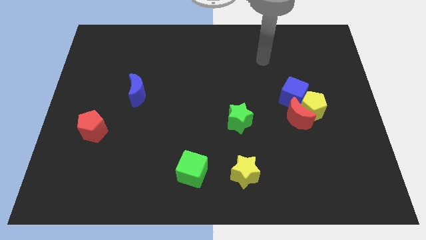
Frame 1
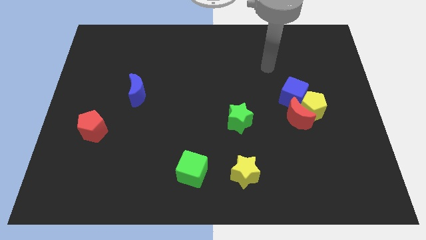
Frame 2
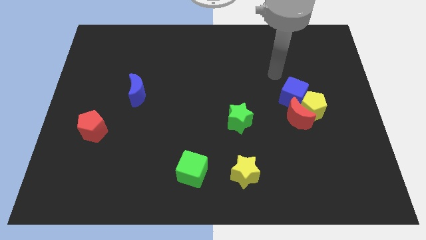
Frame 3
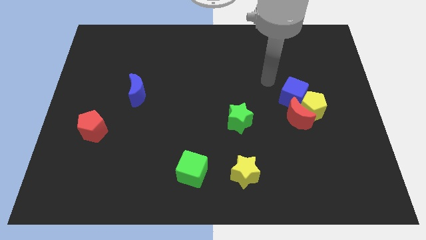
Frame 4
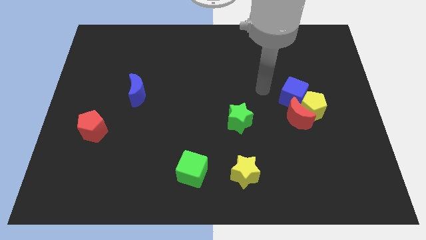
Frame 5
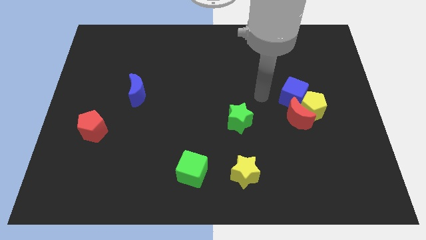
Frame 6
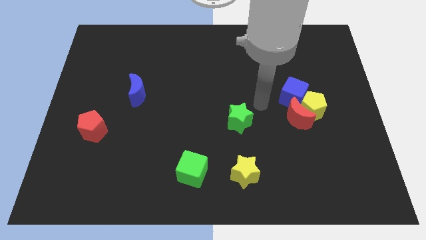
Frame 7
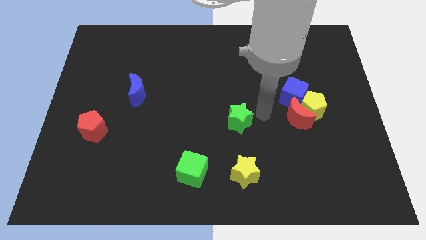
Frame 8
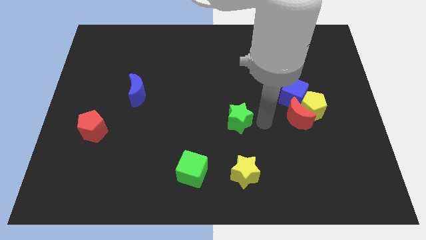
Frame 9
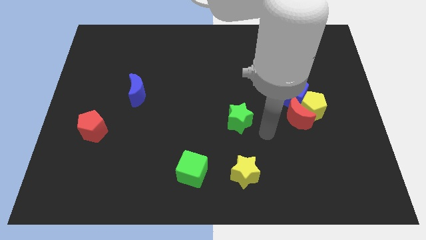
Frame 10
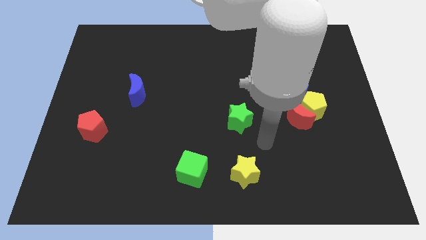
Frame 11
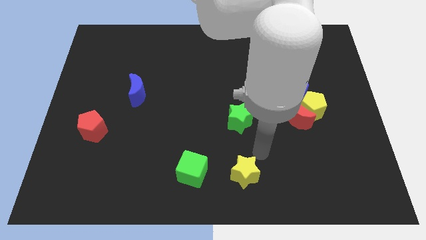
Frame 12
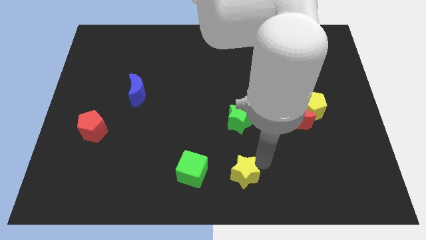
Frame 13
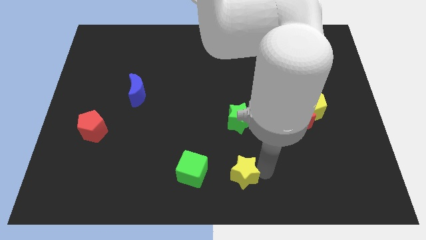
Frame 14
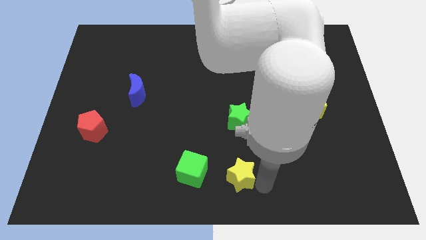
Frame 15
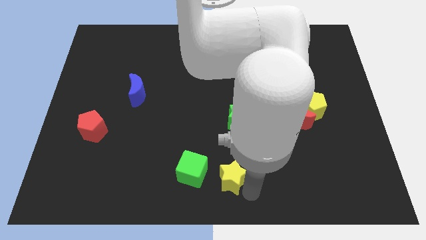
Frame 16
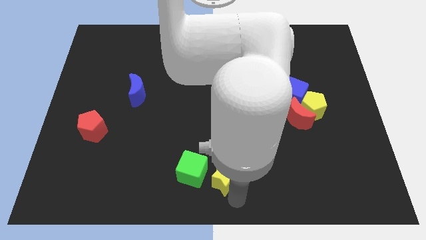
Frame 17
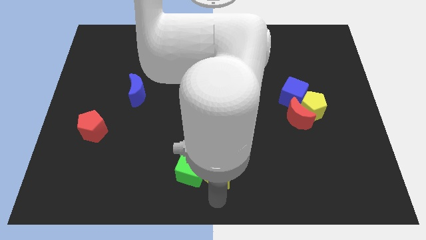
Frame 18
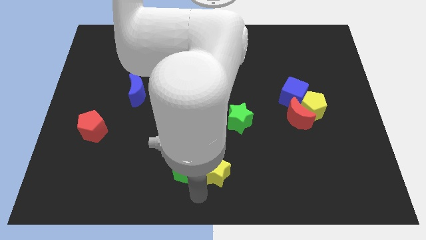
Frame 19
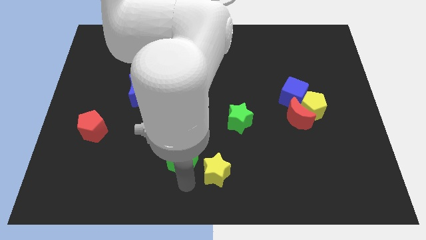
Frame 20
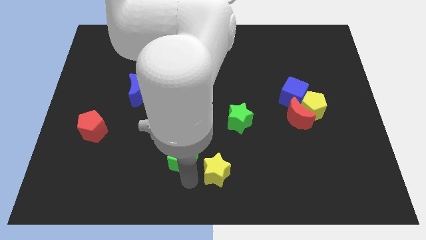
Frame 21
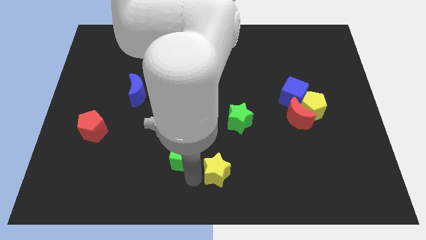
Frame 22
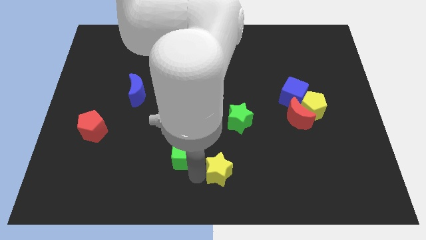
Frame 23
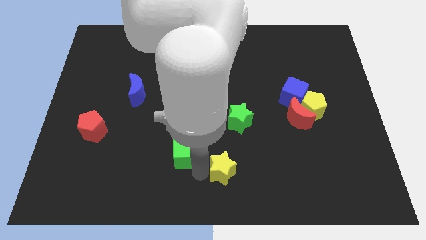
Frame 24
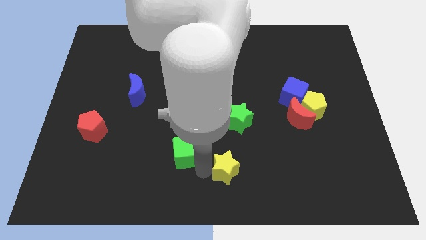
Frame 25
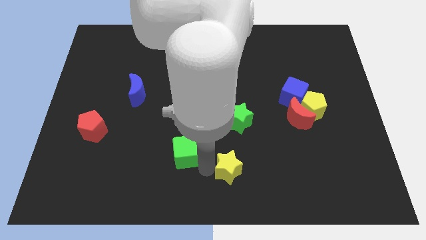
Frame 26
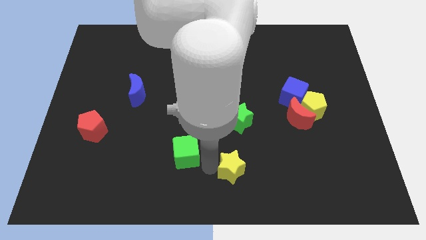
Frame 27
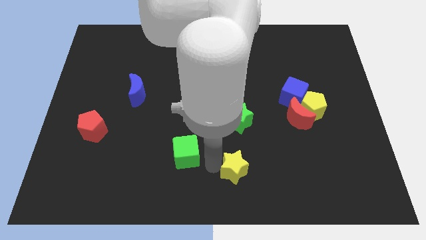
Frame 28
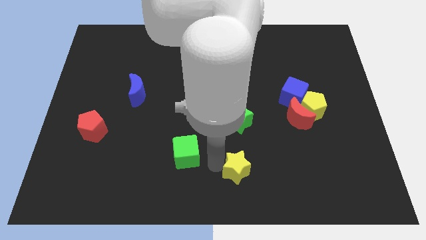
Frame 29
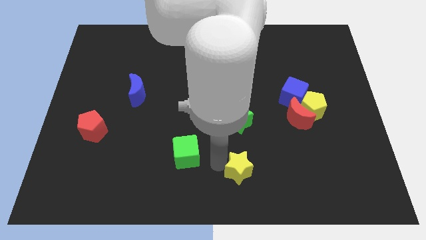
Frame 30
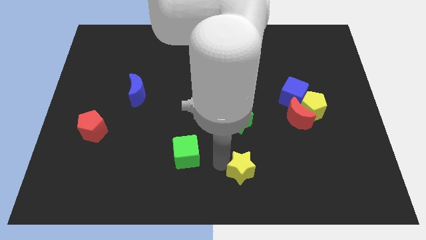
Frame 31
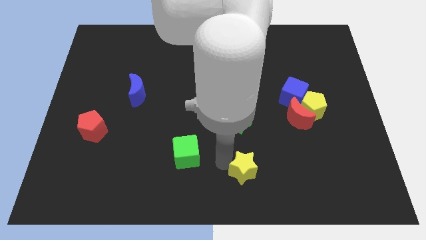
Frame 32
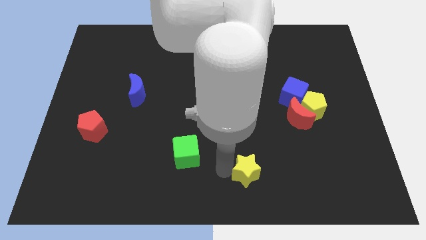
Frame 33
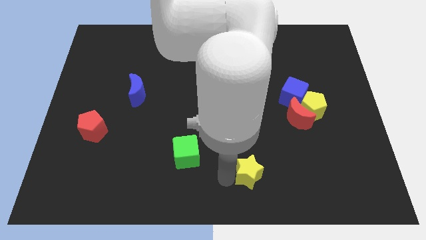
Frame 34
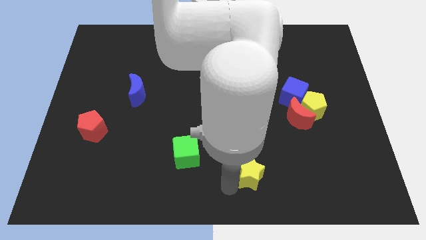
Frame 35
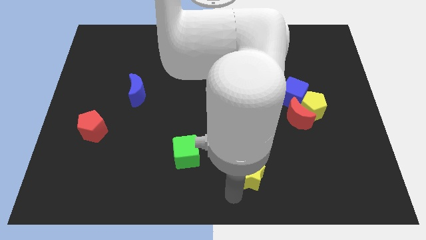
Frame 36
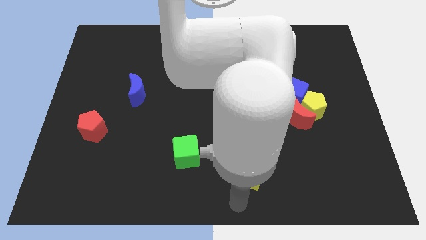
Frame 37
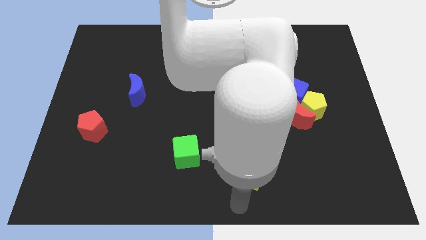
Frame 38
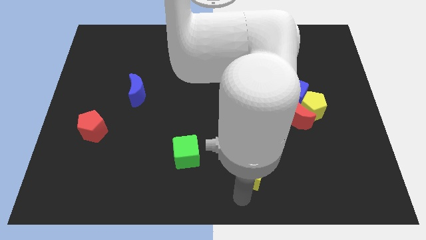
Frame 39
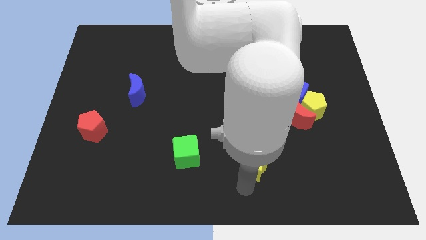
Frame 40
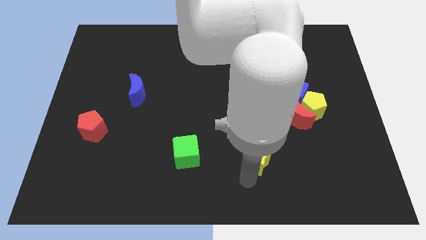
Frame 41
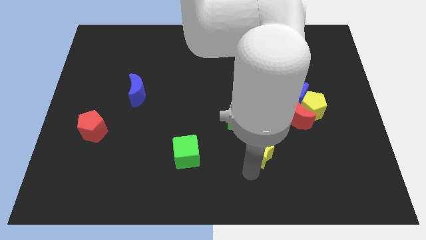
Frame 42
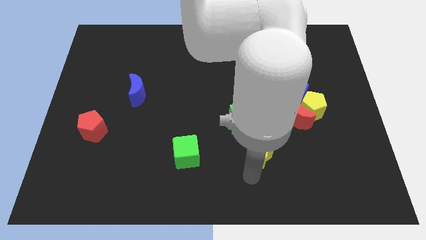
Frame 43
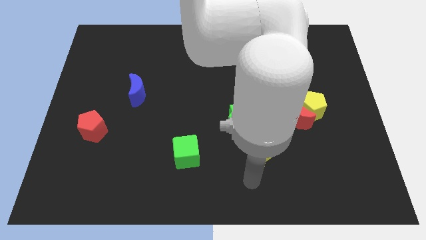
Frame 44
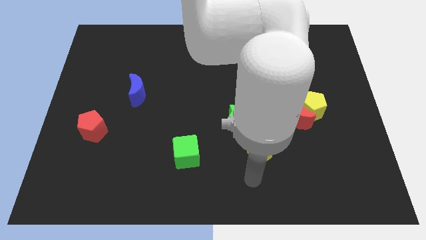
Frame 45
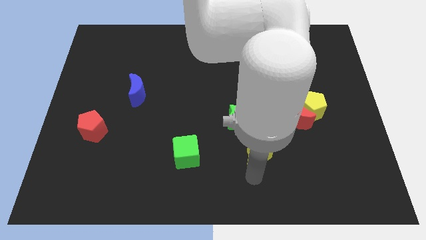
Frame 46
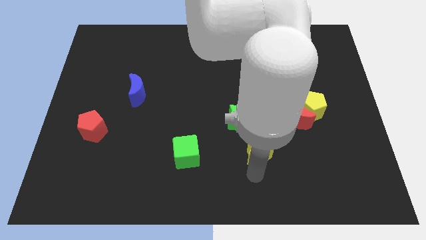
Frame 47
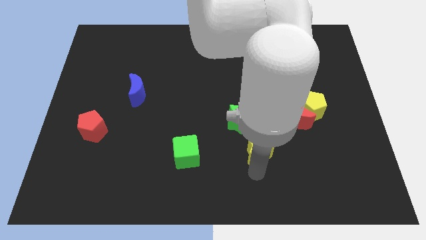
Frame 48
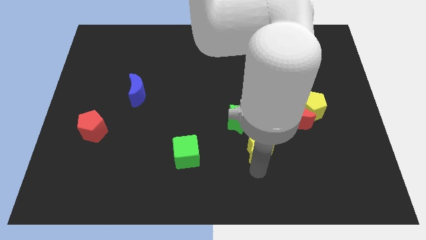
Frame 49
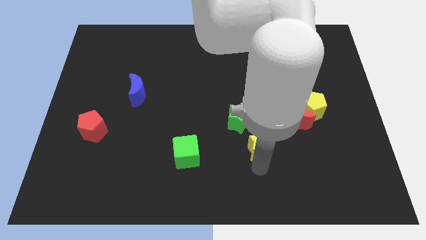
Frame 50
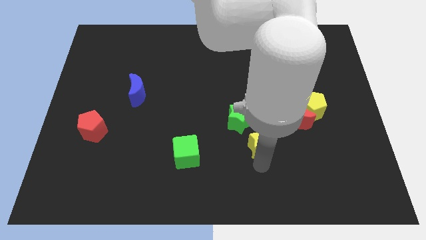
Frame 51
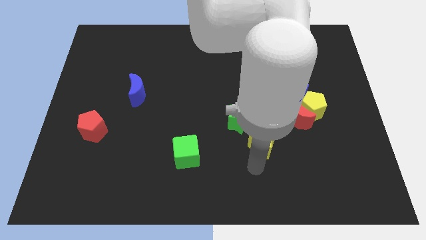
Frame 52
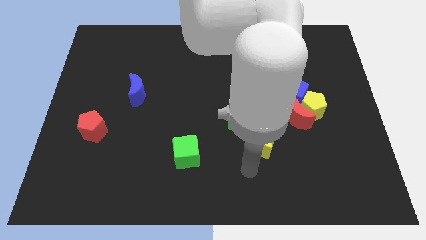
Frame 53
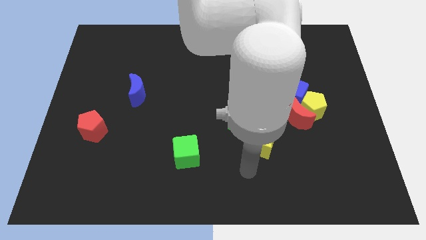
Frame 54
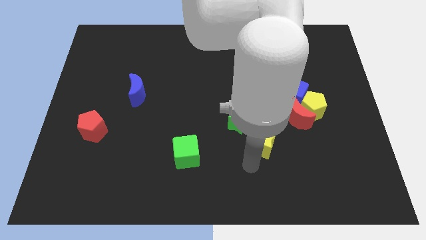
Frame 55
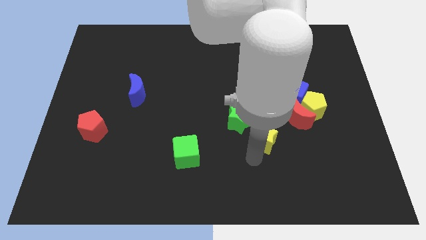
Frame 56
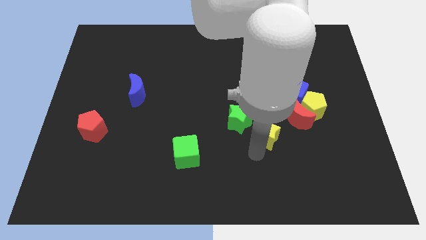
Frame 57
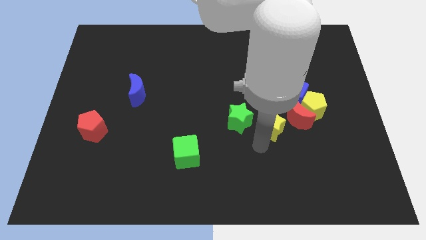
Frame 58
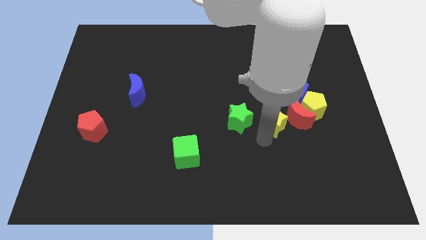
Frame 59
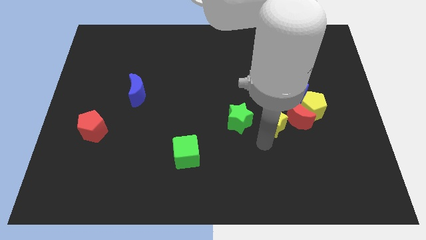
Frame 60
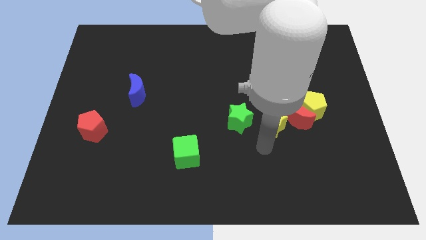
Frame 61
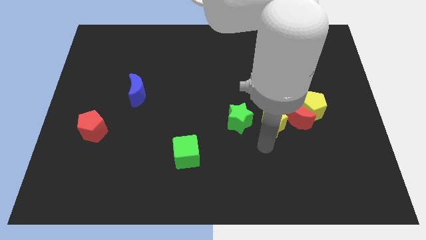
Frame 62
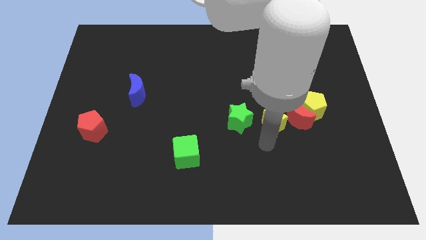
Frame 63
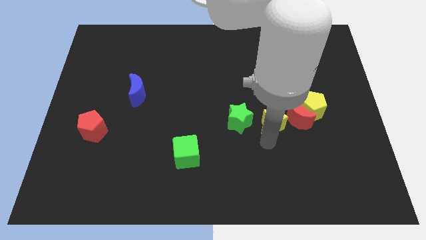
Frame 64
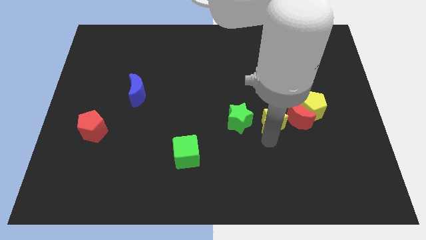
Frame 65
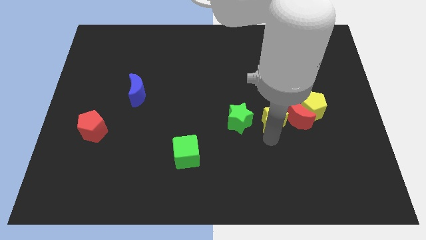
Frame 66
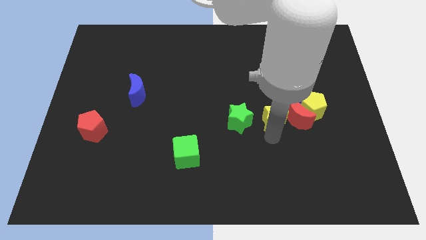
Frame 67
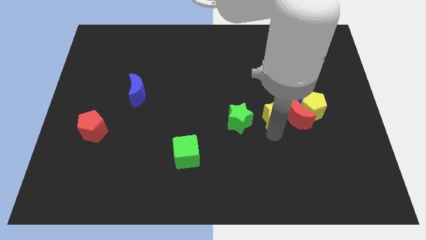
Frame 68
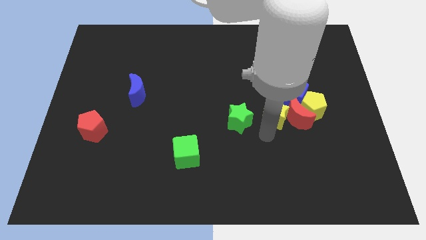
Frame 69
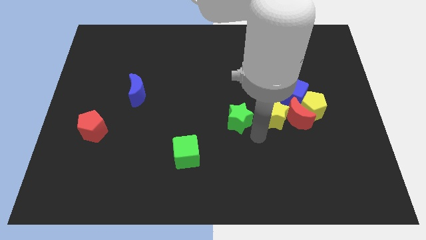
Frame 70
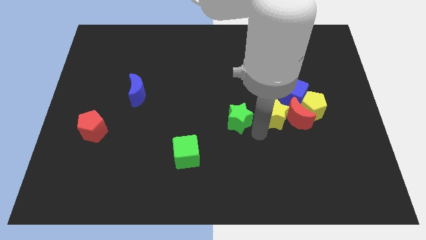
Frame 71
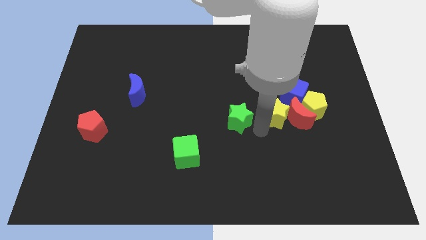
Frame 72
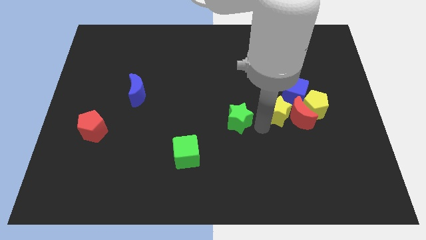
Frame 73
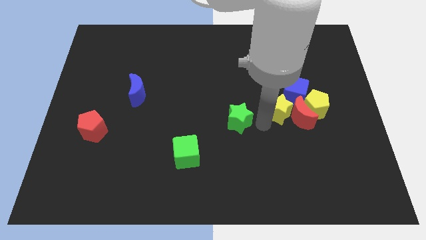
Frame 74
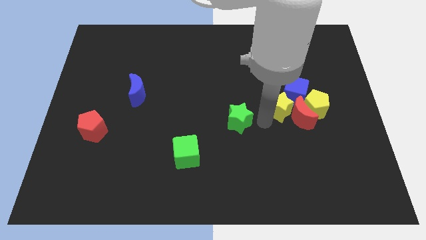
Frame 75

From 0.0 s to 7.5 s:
slide the yellow star towards the blue cube
